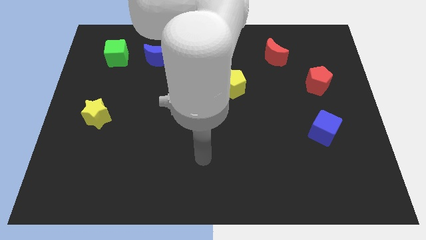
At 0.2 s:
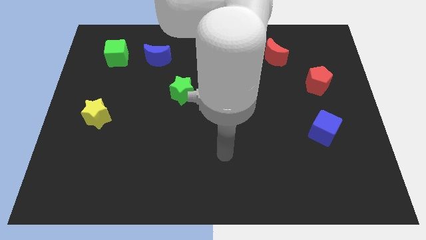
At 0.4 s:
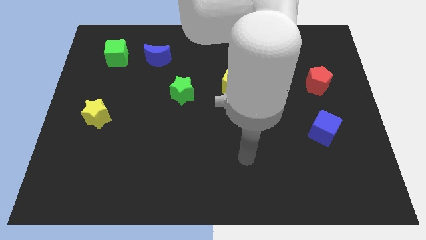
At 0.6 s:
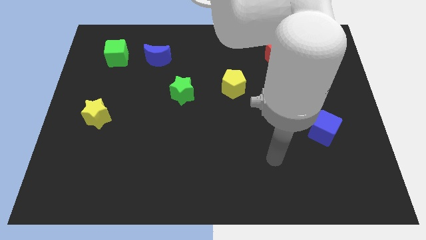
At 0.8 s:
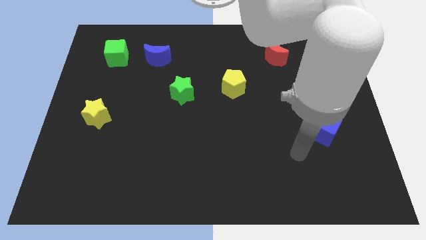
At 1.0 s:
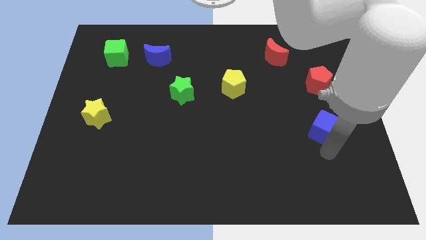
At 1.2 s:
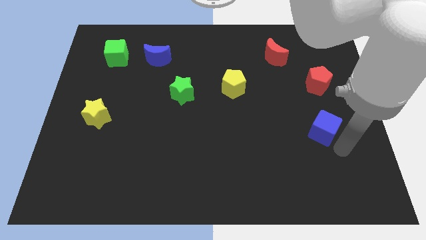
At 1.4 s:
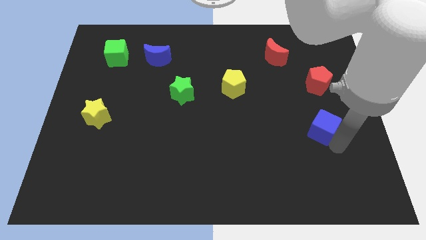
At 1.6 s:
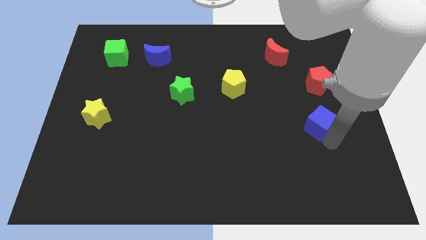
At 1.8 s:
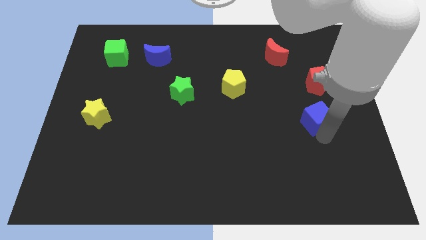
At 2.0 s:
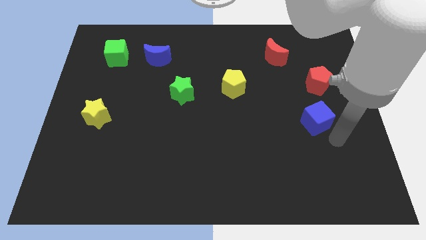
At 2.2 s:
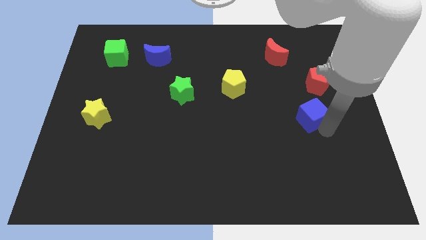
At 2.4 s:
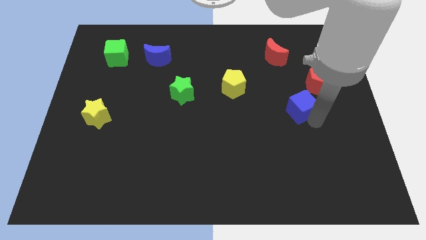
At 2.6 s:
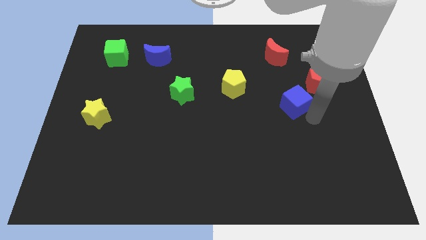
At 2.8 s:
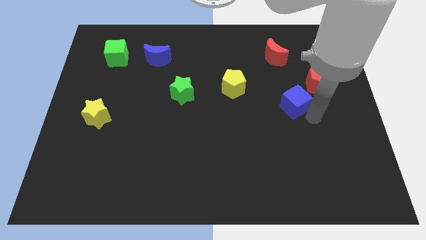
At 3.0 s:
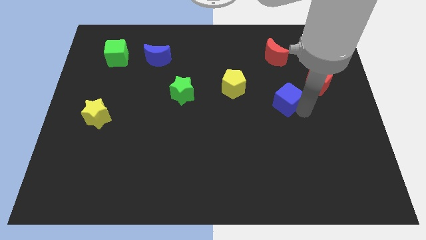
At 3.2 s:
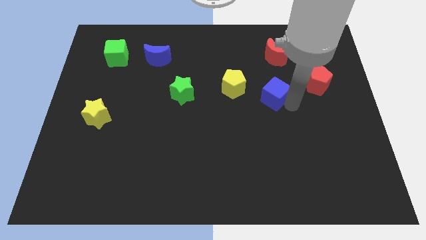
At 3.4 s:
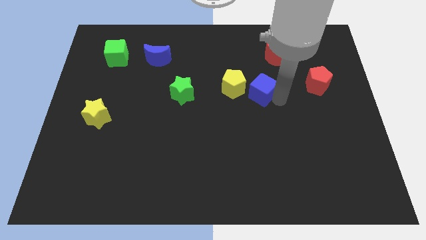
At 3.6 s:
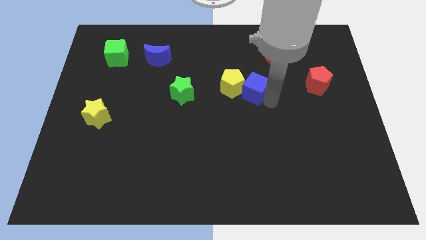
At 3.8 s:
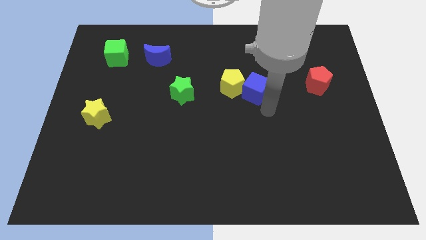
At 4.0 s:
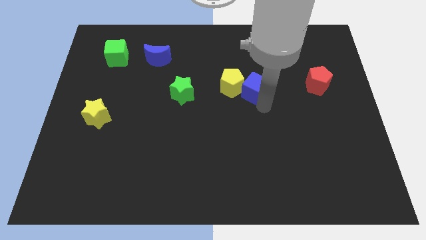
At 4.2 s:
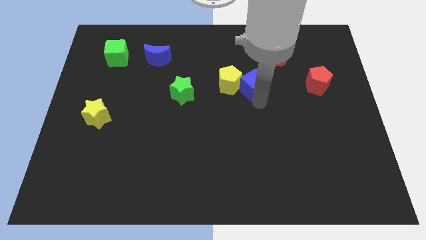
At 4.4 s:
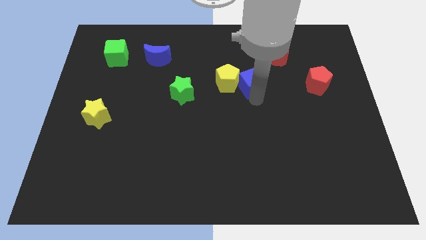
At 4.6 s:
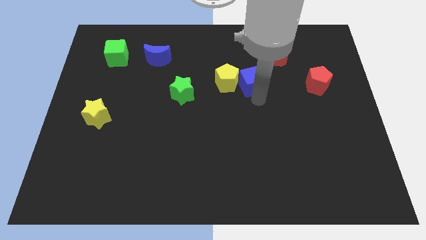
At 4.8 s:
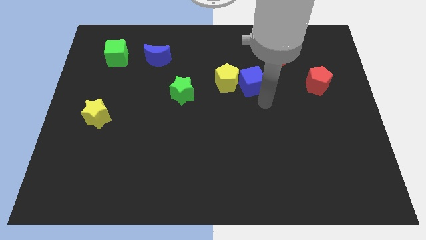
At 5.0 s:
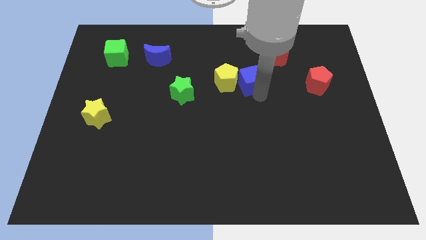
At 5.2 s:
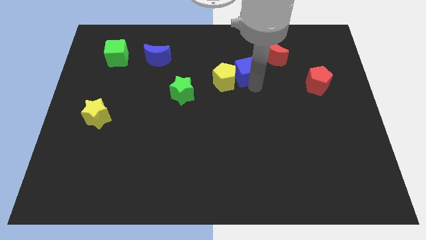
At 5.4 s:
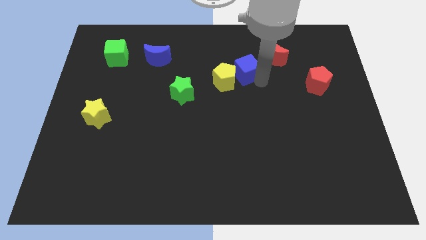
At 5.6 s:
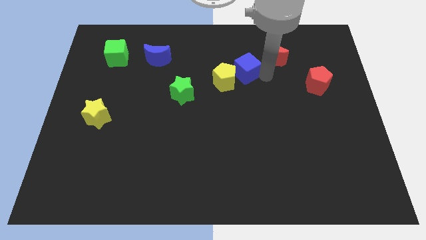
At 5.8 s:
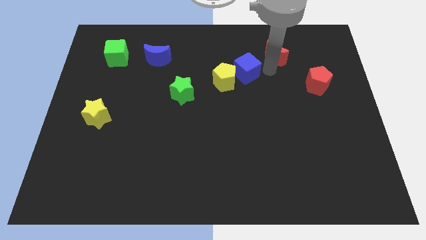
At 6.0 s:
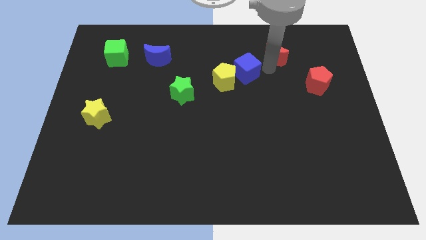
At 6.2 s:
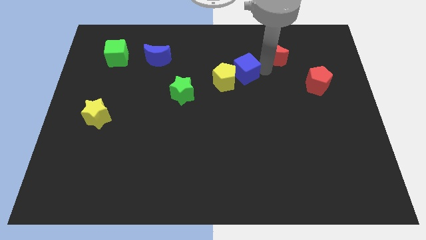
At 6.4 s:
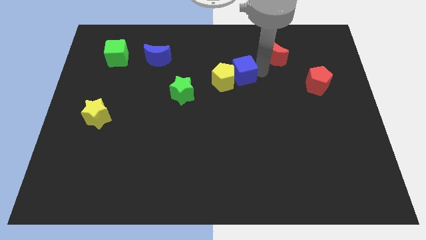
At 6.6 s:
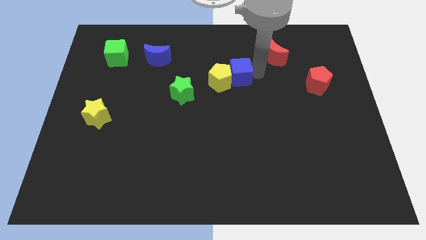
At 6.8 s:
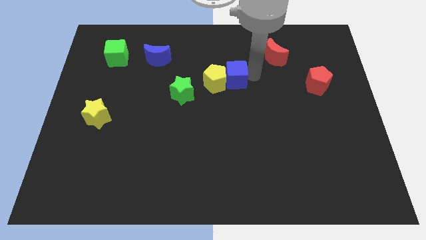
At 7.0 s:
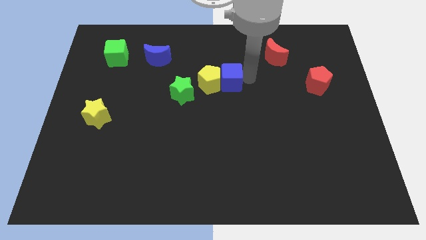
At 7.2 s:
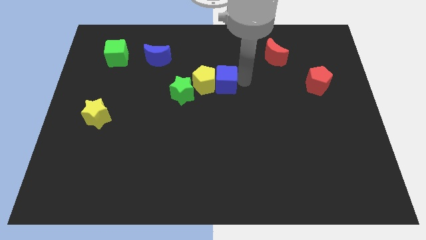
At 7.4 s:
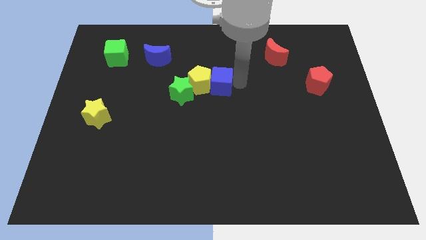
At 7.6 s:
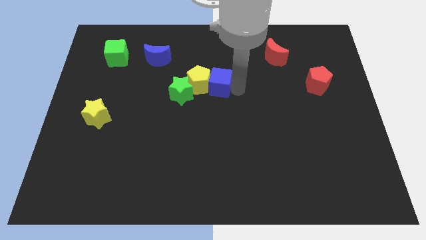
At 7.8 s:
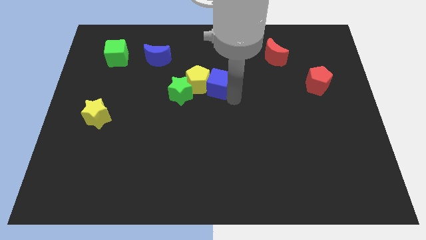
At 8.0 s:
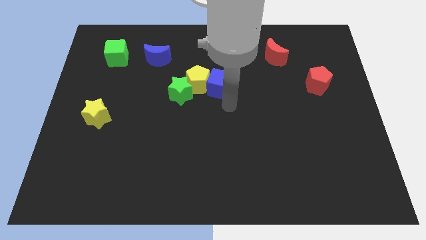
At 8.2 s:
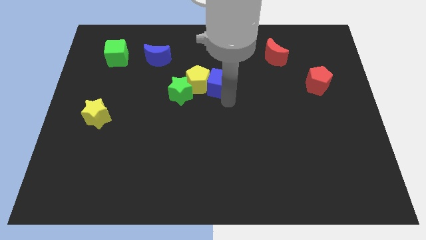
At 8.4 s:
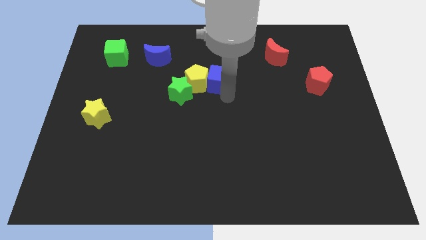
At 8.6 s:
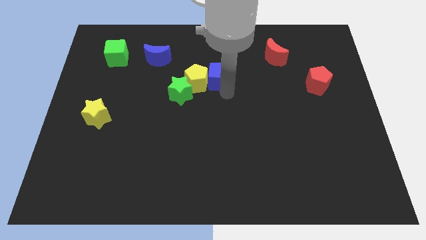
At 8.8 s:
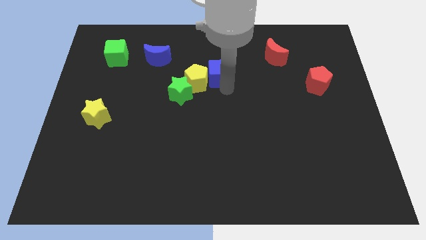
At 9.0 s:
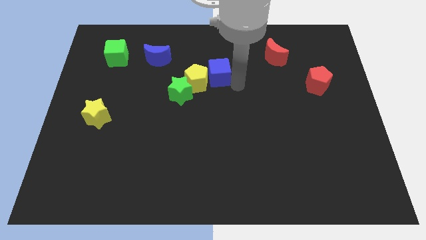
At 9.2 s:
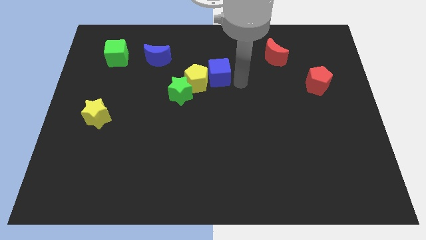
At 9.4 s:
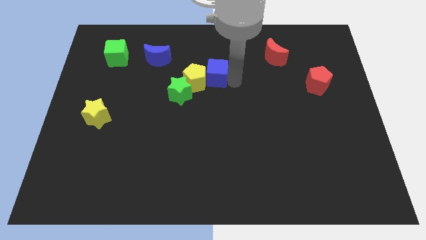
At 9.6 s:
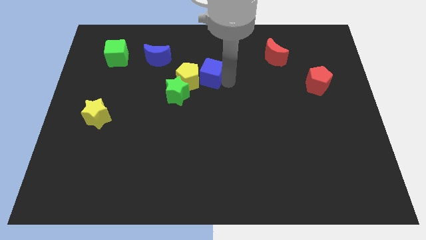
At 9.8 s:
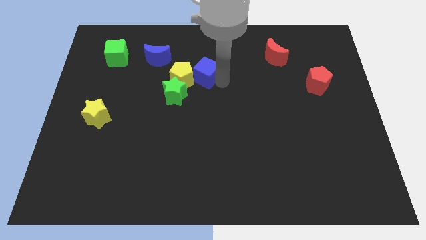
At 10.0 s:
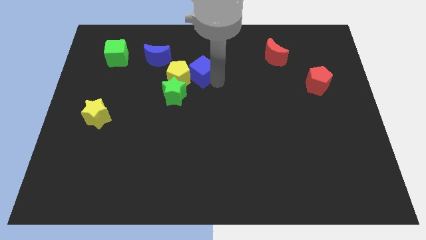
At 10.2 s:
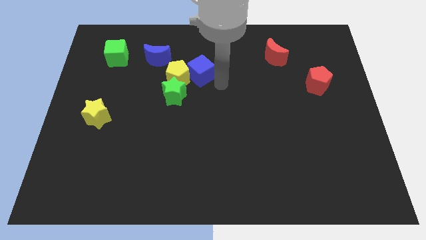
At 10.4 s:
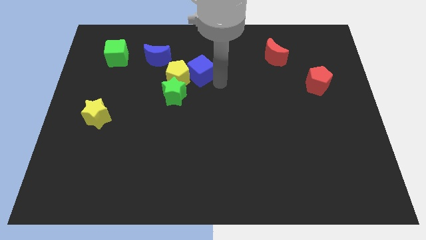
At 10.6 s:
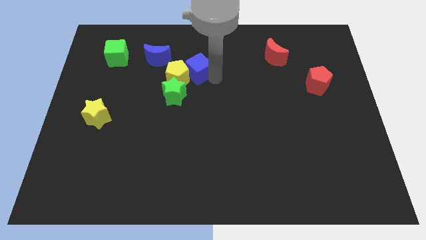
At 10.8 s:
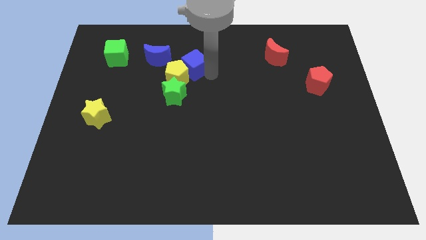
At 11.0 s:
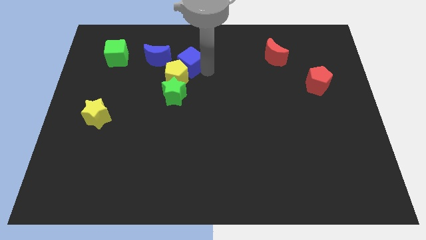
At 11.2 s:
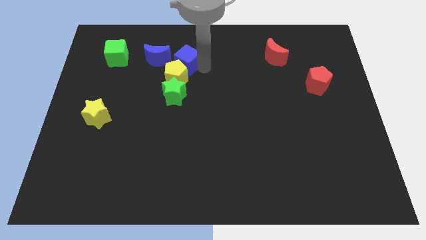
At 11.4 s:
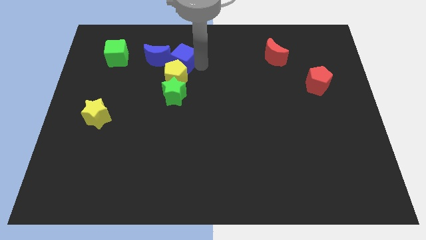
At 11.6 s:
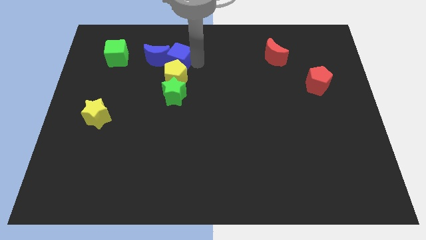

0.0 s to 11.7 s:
put the blue cube to the blue moon
